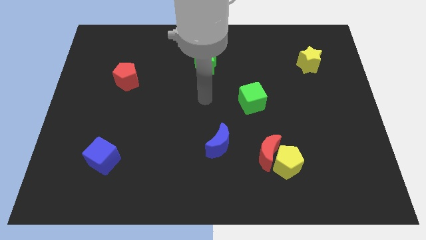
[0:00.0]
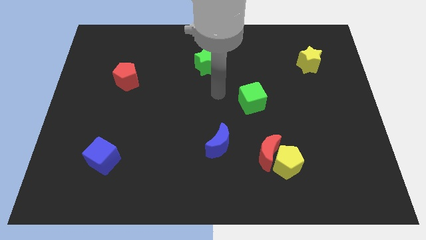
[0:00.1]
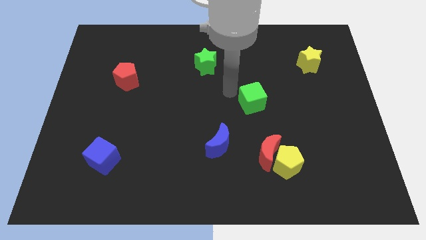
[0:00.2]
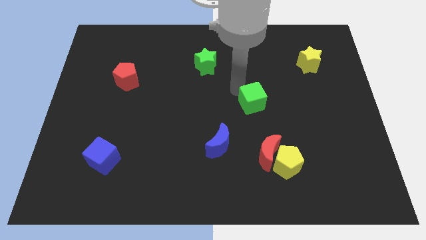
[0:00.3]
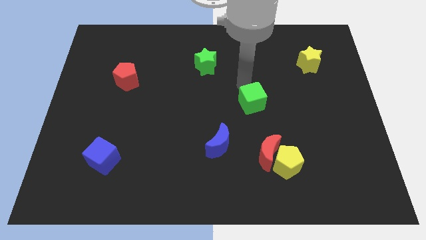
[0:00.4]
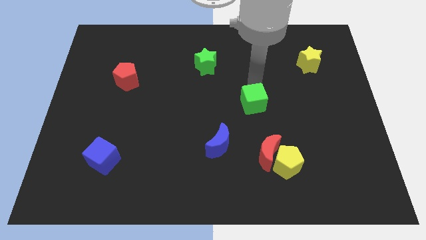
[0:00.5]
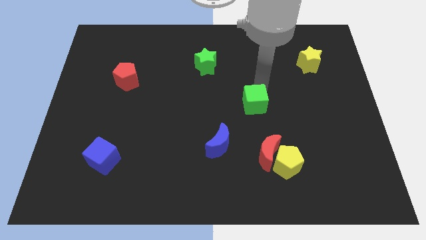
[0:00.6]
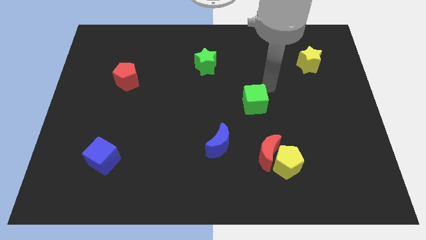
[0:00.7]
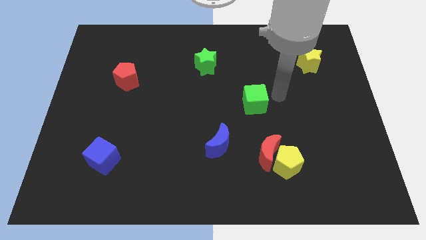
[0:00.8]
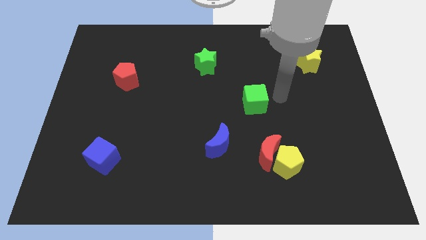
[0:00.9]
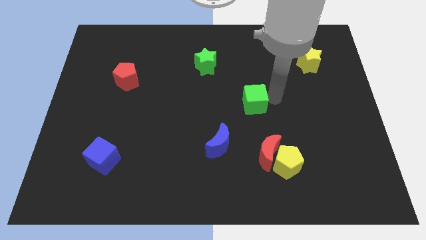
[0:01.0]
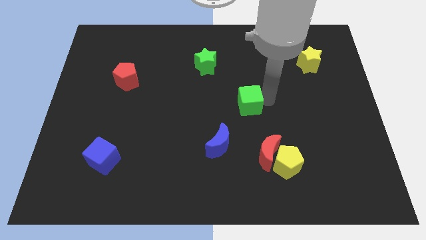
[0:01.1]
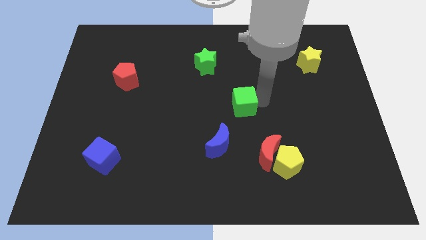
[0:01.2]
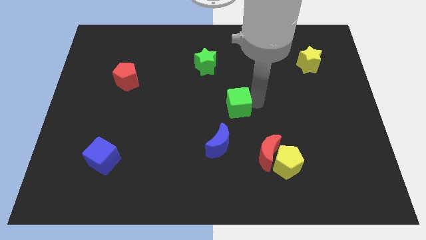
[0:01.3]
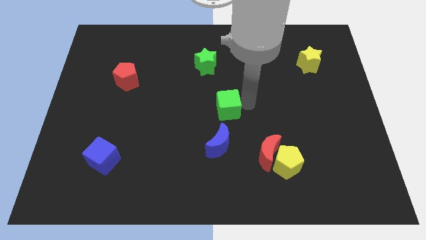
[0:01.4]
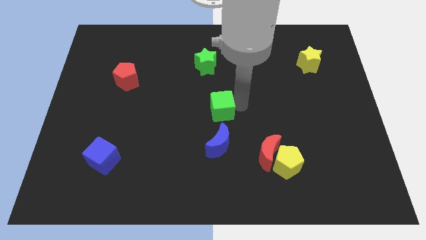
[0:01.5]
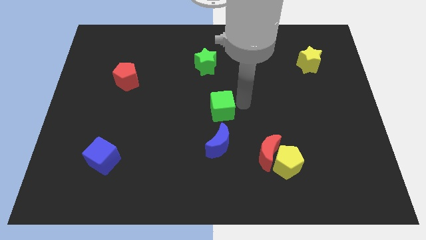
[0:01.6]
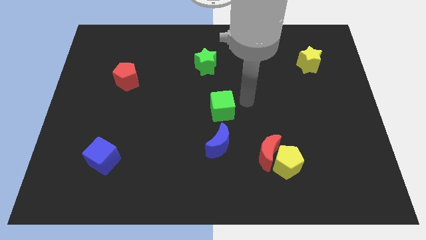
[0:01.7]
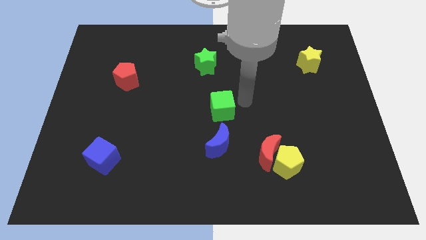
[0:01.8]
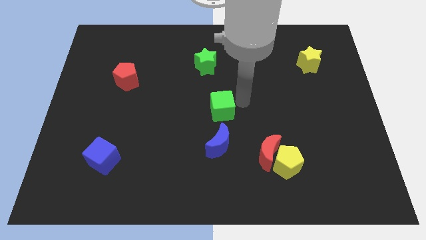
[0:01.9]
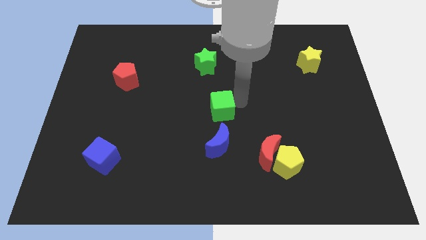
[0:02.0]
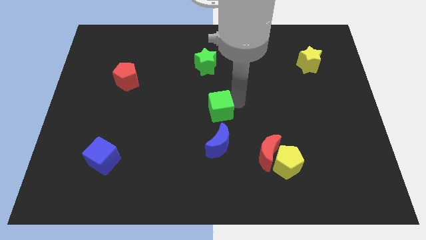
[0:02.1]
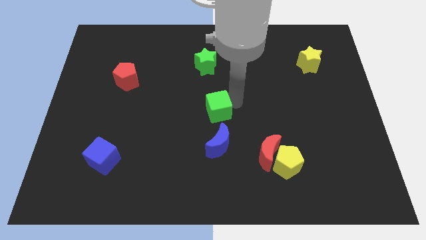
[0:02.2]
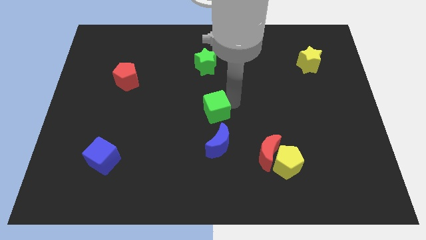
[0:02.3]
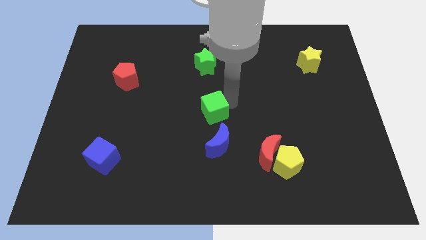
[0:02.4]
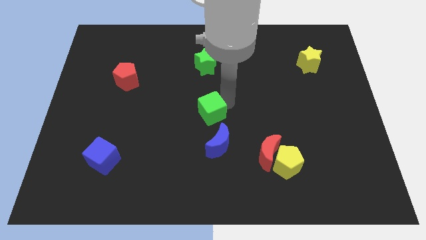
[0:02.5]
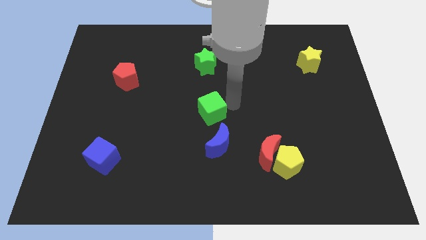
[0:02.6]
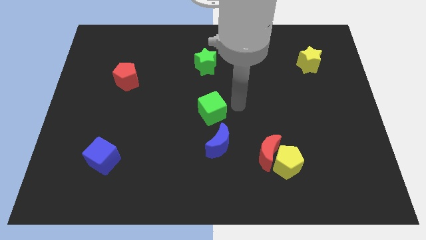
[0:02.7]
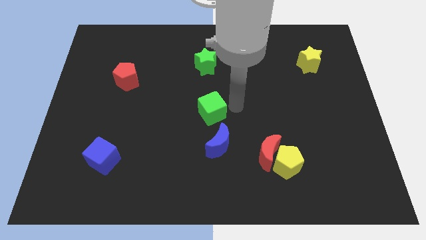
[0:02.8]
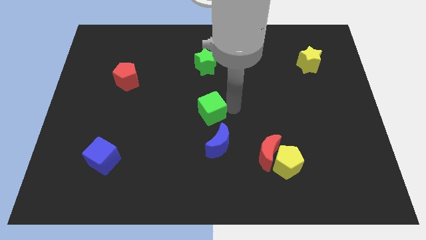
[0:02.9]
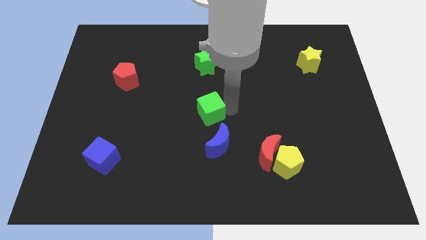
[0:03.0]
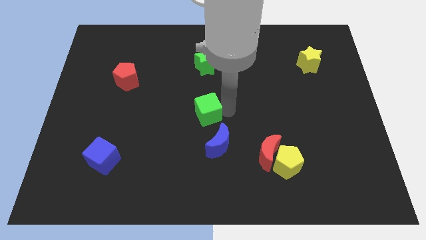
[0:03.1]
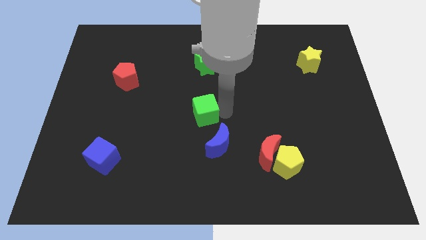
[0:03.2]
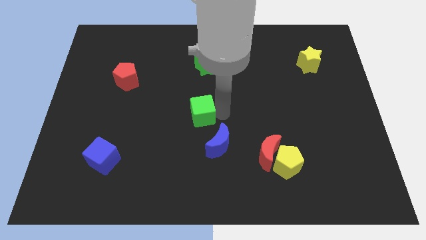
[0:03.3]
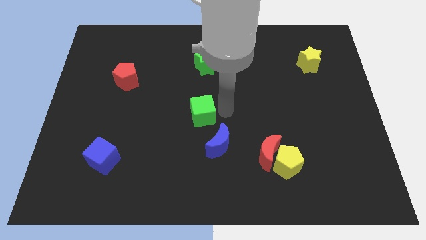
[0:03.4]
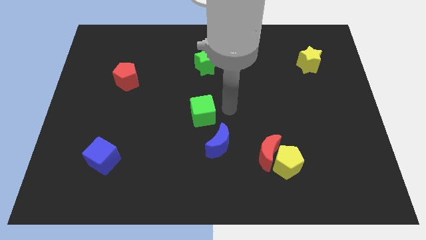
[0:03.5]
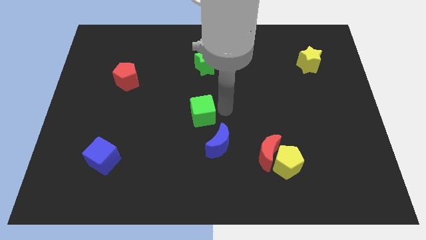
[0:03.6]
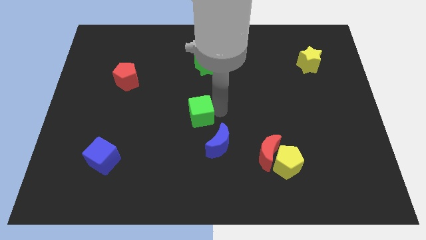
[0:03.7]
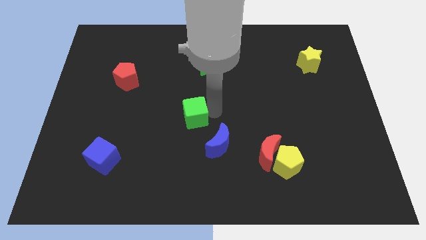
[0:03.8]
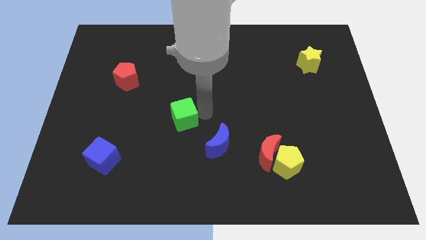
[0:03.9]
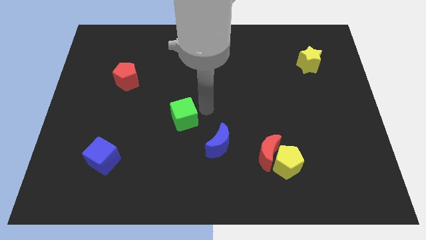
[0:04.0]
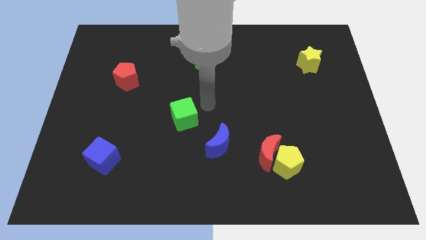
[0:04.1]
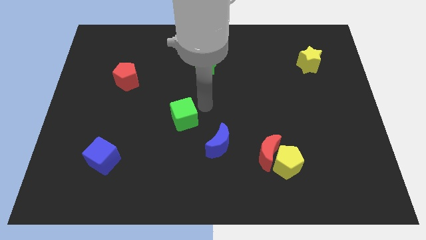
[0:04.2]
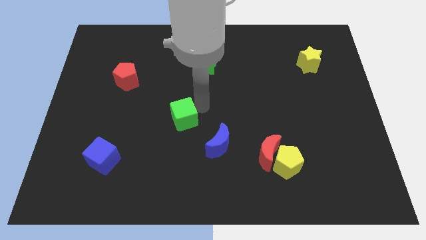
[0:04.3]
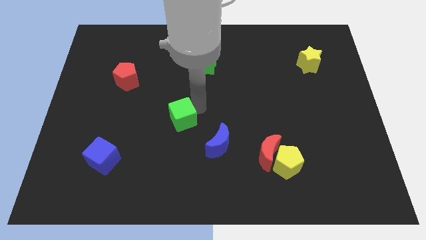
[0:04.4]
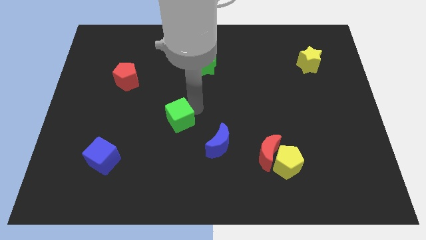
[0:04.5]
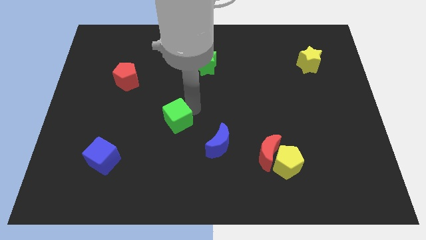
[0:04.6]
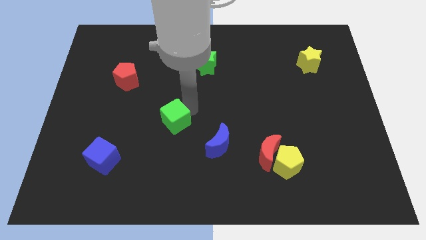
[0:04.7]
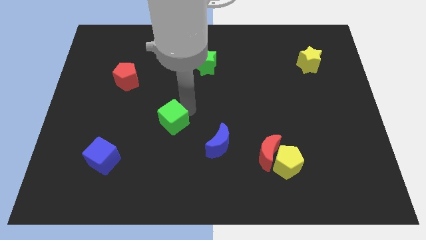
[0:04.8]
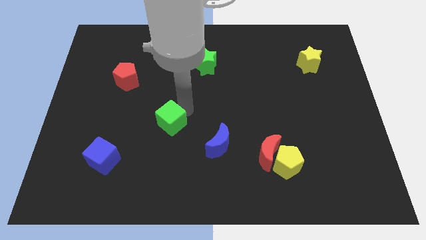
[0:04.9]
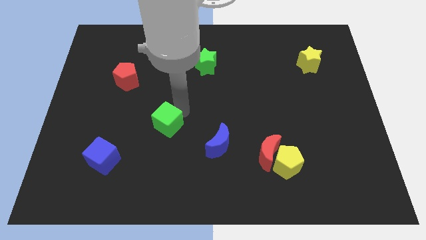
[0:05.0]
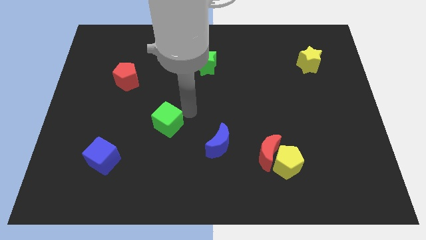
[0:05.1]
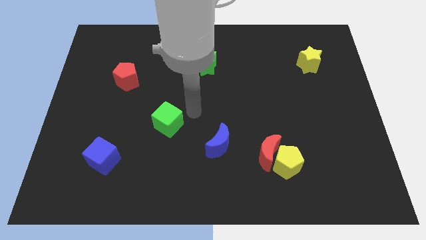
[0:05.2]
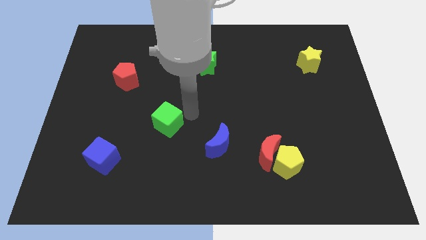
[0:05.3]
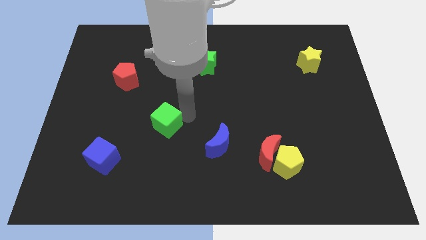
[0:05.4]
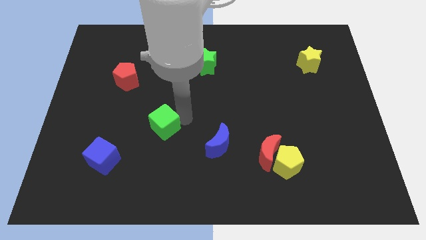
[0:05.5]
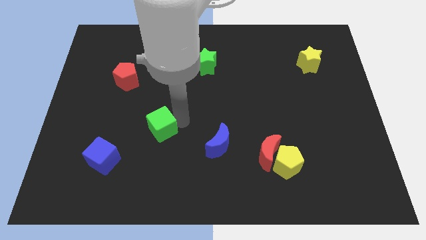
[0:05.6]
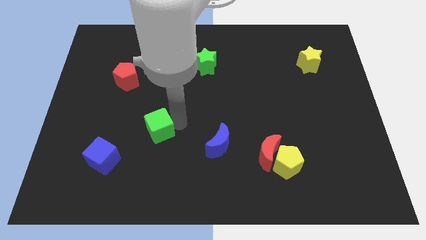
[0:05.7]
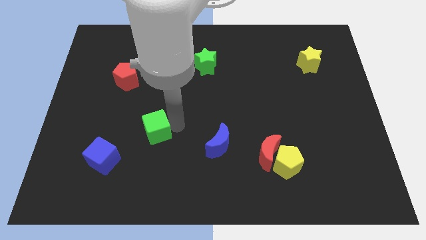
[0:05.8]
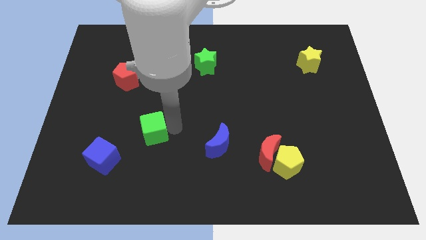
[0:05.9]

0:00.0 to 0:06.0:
push the green cube to the top right side of the blue cube

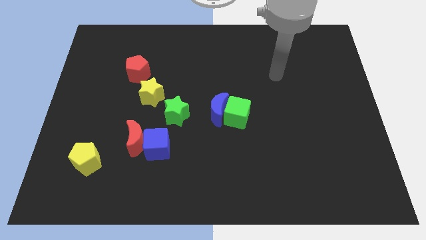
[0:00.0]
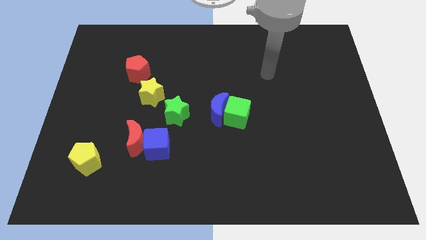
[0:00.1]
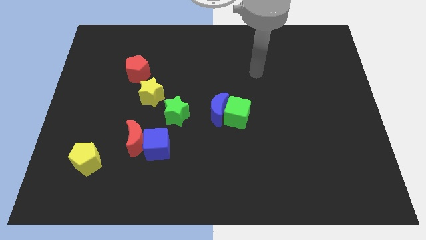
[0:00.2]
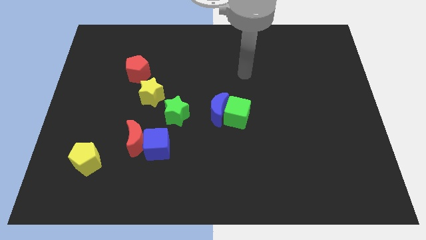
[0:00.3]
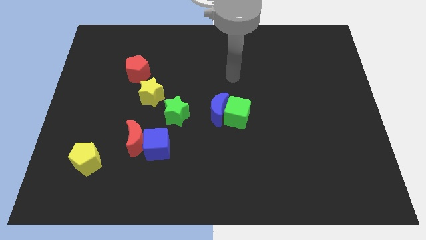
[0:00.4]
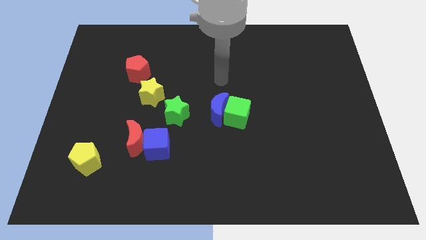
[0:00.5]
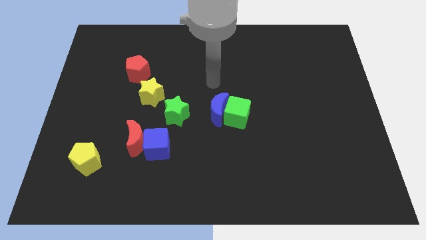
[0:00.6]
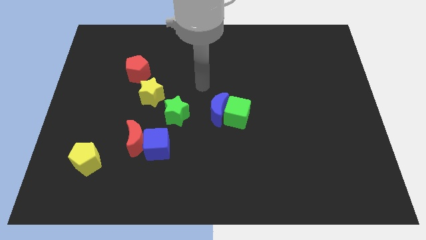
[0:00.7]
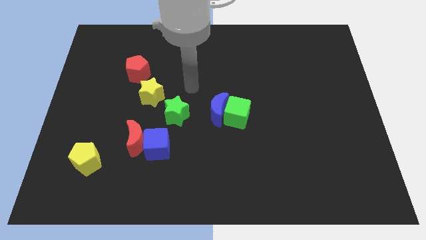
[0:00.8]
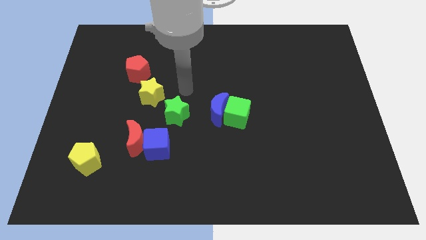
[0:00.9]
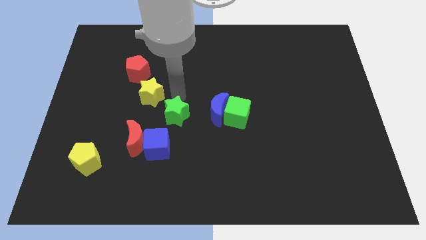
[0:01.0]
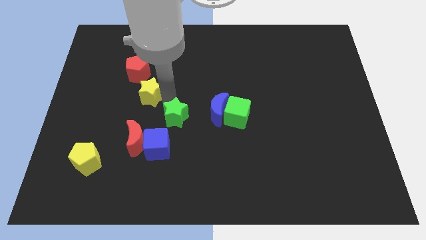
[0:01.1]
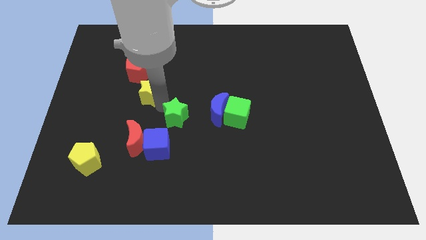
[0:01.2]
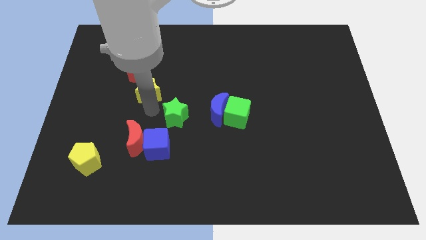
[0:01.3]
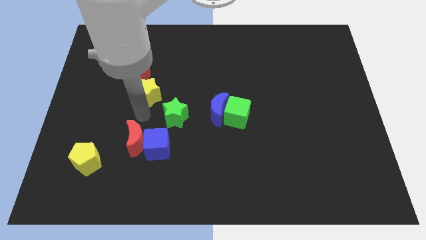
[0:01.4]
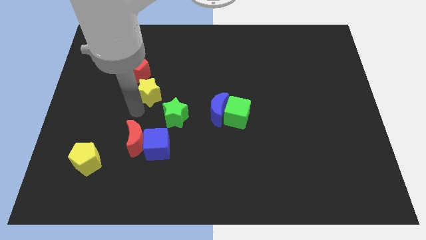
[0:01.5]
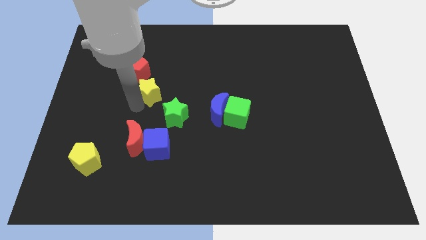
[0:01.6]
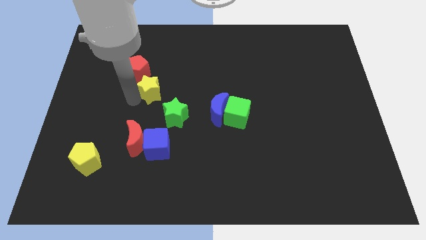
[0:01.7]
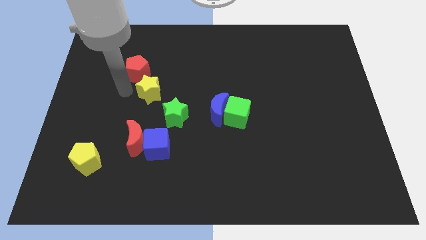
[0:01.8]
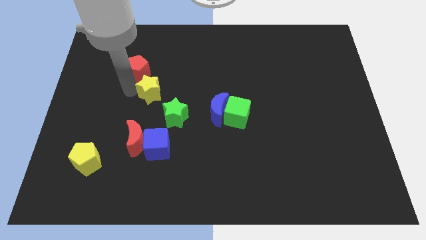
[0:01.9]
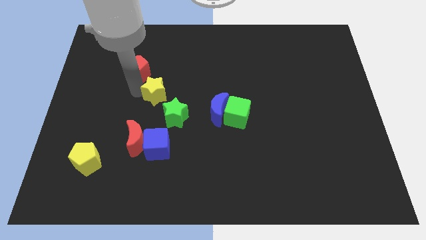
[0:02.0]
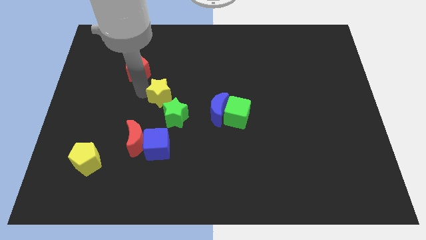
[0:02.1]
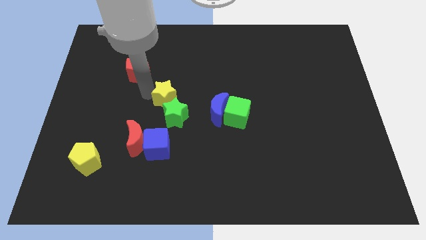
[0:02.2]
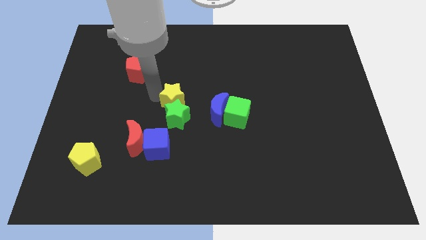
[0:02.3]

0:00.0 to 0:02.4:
put the yellow star to the top right of the green star
